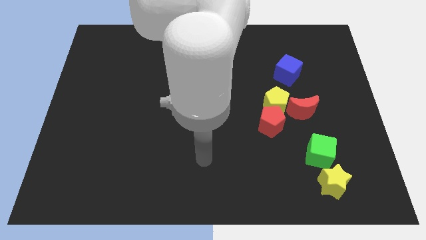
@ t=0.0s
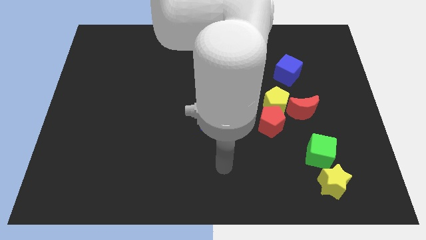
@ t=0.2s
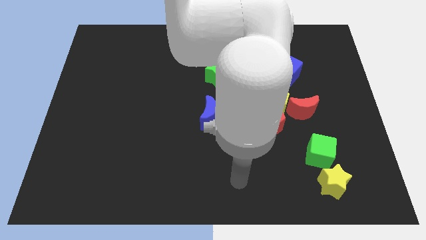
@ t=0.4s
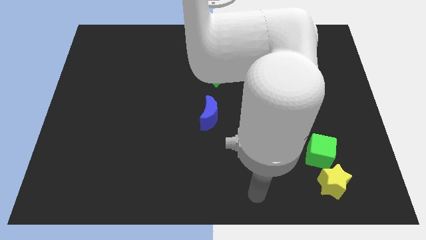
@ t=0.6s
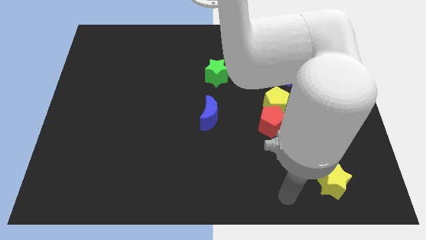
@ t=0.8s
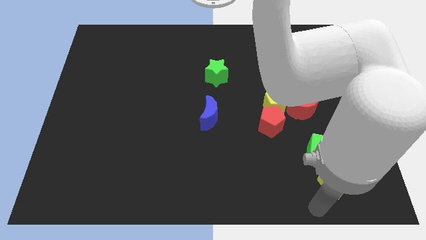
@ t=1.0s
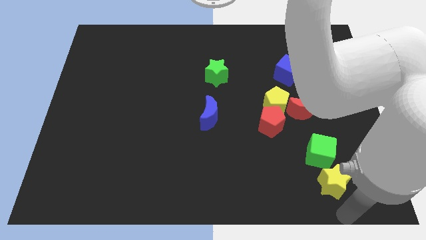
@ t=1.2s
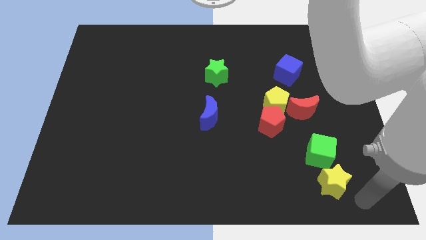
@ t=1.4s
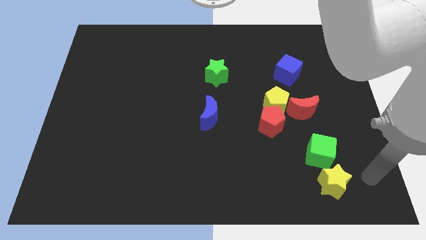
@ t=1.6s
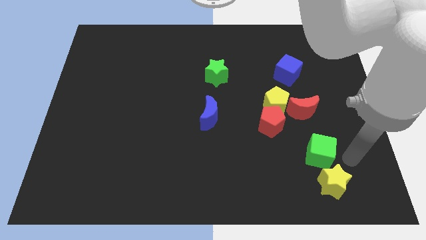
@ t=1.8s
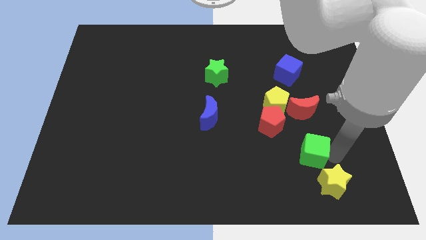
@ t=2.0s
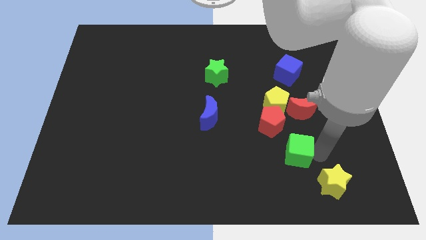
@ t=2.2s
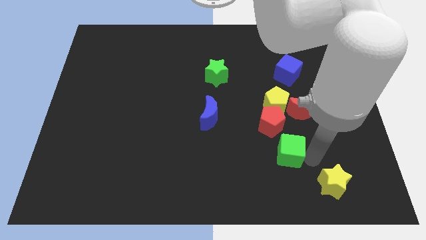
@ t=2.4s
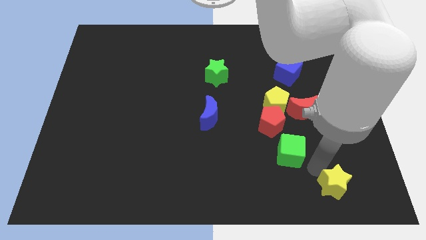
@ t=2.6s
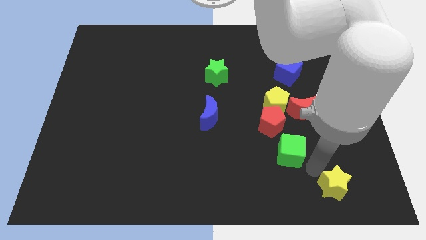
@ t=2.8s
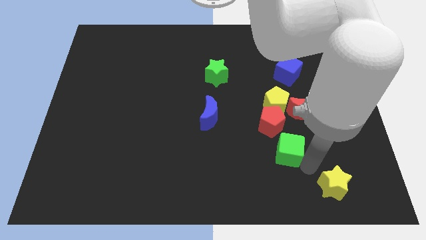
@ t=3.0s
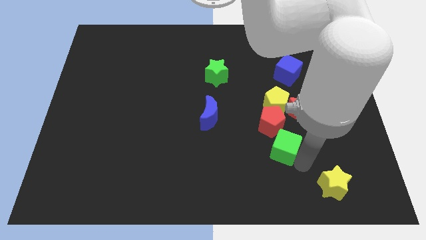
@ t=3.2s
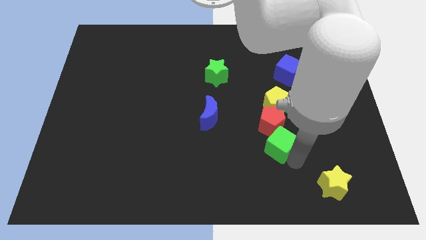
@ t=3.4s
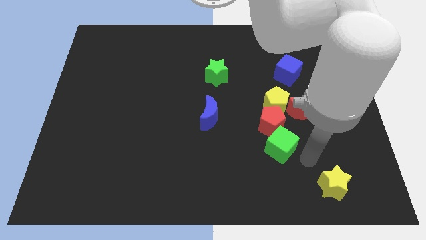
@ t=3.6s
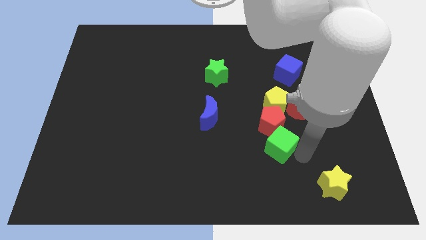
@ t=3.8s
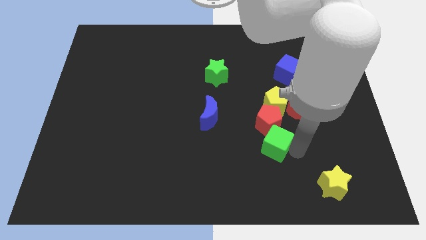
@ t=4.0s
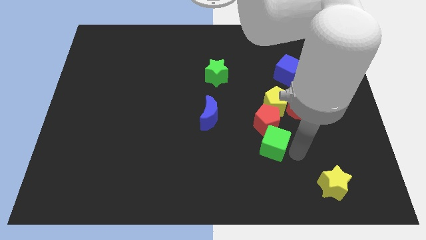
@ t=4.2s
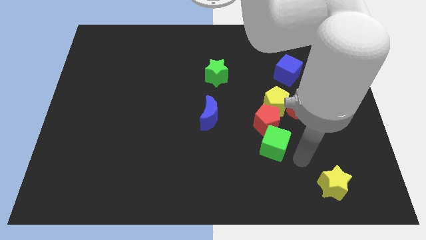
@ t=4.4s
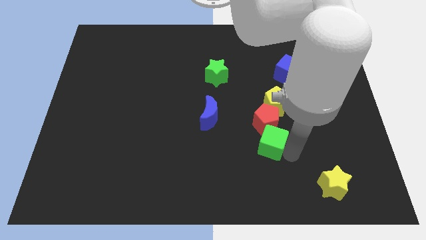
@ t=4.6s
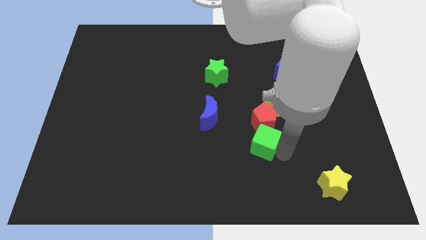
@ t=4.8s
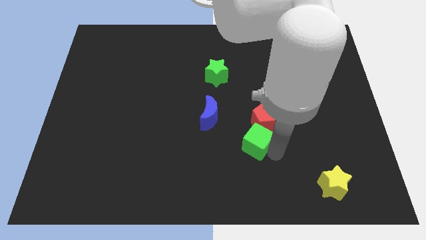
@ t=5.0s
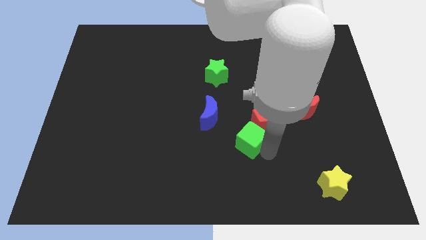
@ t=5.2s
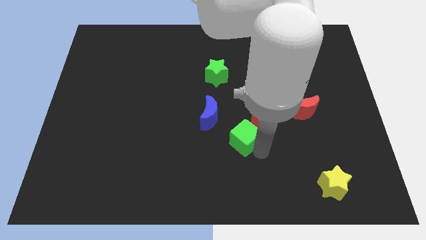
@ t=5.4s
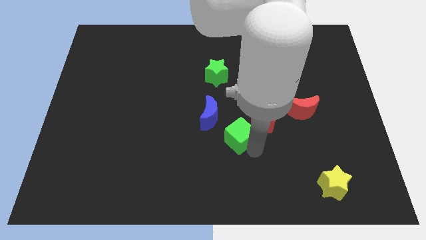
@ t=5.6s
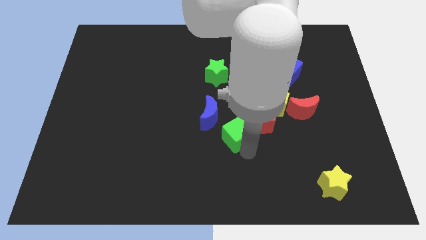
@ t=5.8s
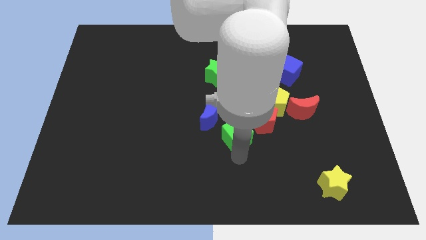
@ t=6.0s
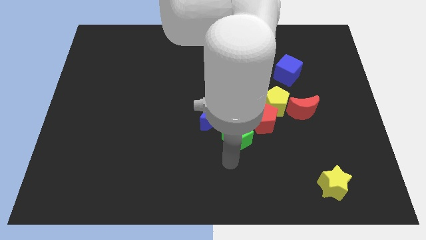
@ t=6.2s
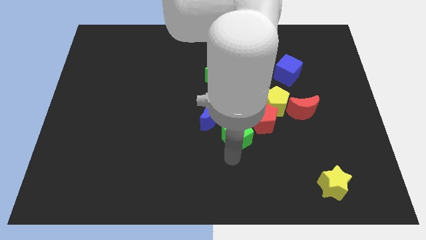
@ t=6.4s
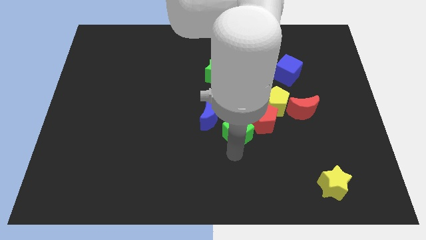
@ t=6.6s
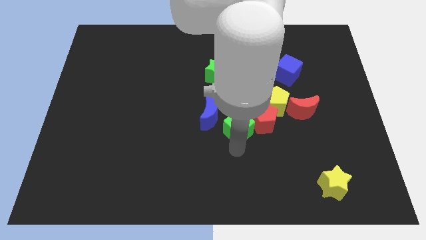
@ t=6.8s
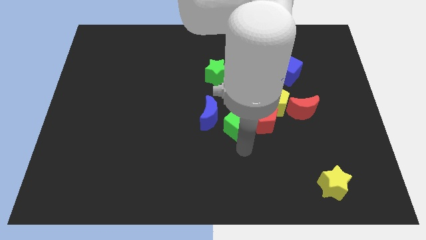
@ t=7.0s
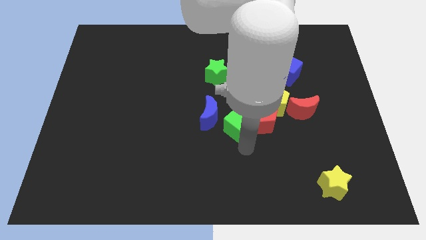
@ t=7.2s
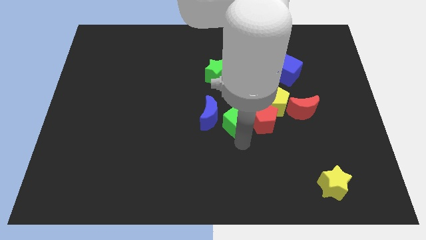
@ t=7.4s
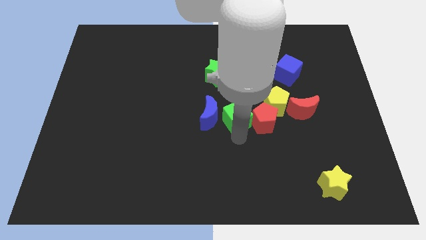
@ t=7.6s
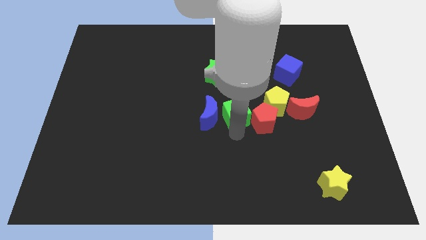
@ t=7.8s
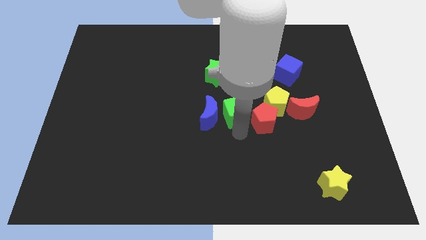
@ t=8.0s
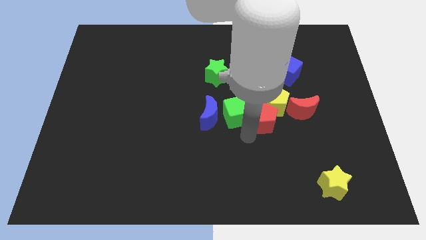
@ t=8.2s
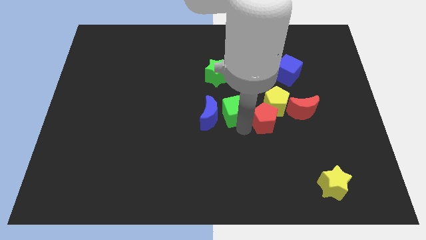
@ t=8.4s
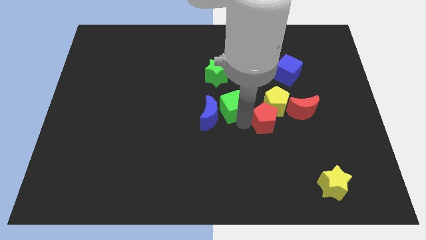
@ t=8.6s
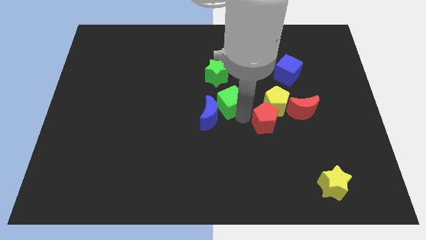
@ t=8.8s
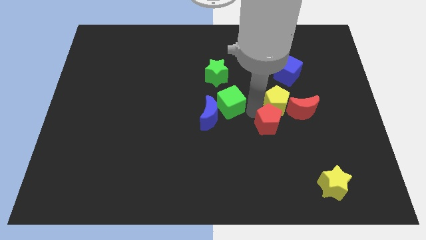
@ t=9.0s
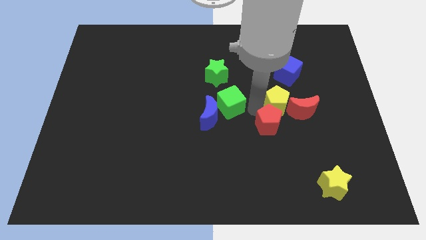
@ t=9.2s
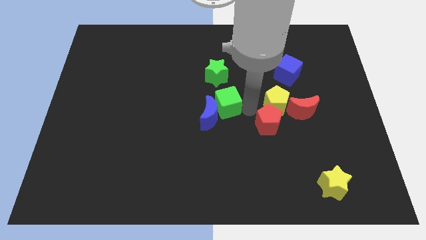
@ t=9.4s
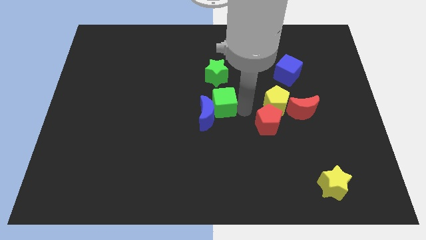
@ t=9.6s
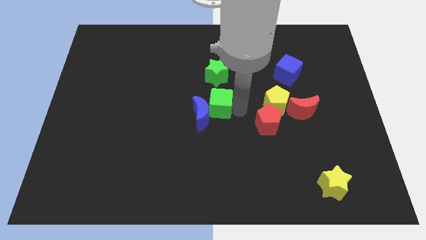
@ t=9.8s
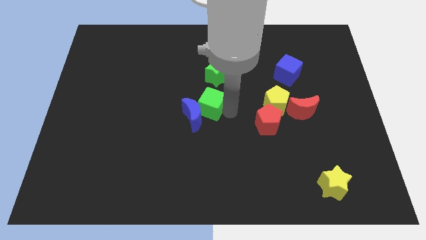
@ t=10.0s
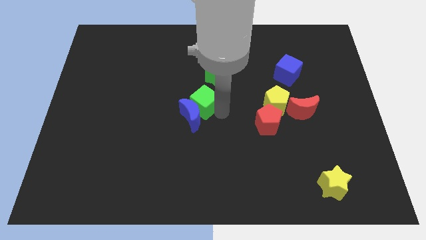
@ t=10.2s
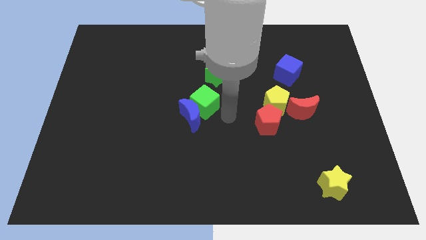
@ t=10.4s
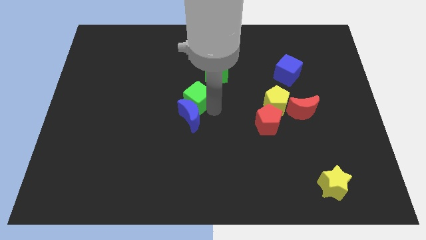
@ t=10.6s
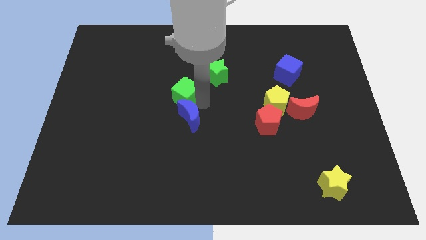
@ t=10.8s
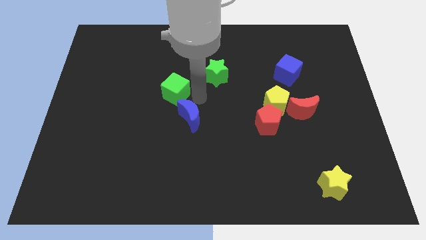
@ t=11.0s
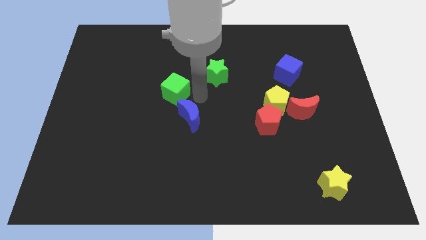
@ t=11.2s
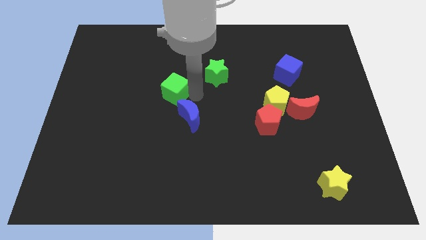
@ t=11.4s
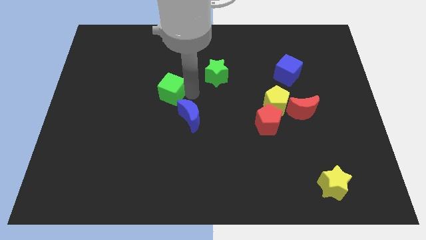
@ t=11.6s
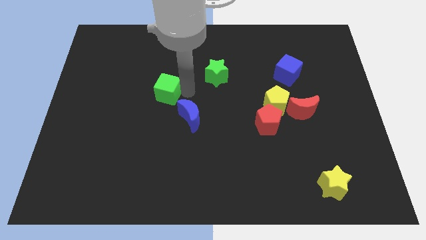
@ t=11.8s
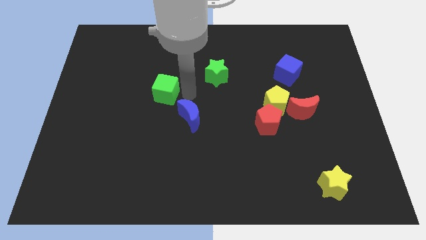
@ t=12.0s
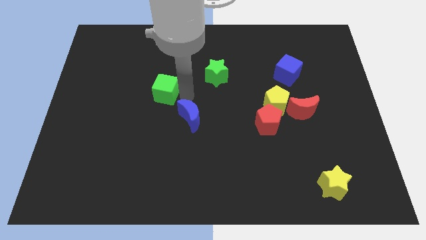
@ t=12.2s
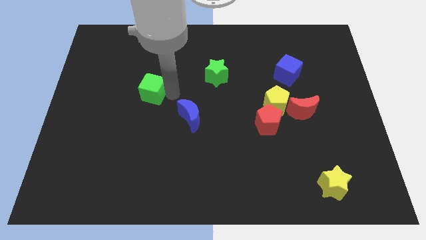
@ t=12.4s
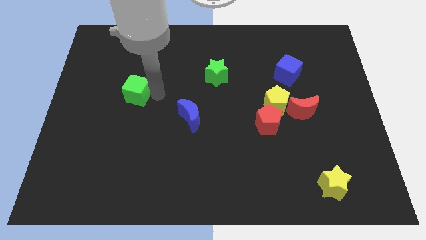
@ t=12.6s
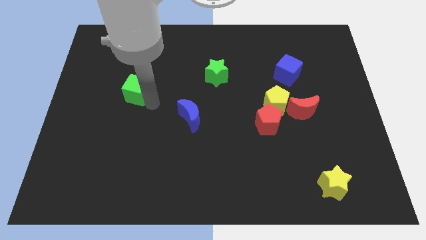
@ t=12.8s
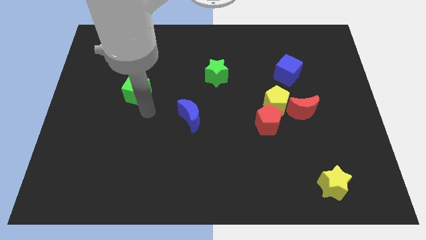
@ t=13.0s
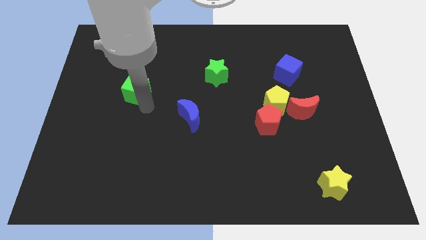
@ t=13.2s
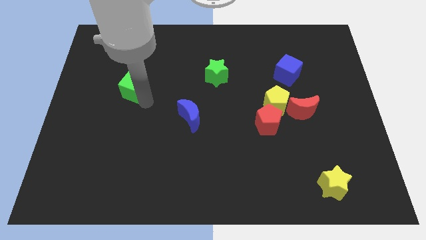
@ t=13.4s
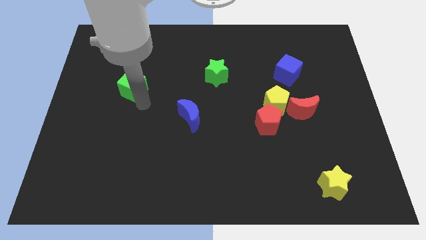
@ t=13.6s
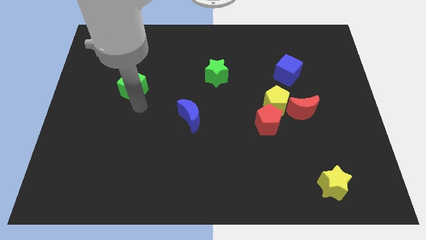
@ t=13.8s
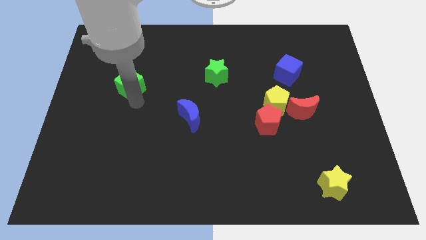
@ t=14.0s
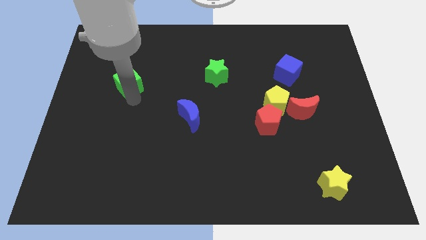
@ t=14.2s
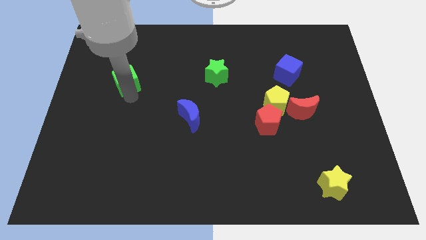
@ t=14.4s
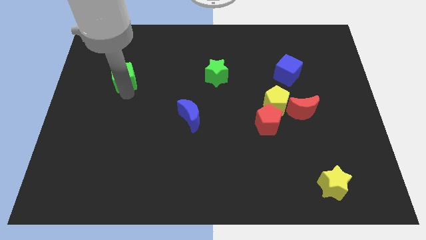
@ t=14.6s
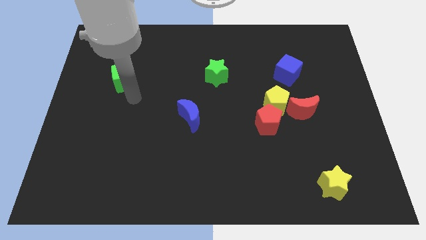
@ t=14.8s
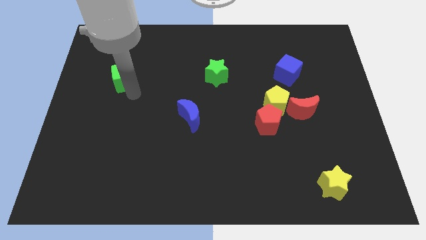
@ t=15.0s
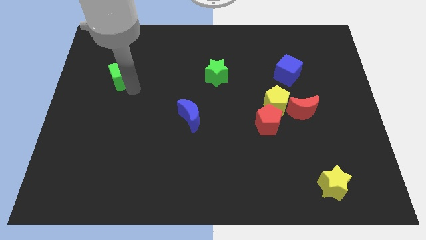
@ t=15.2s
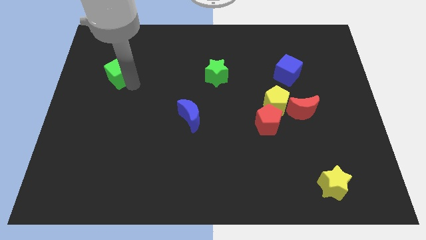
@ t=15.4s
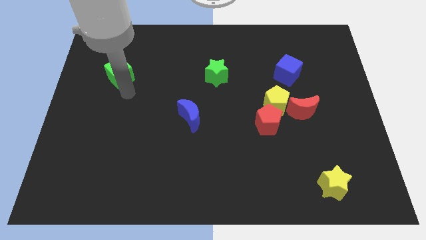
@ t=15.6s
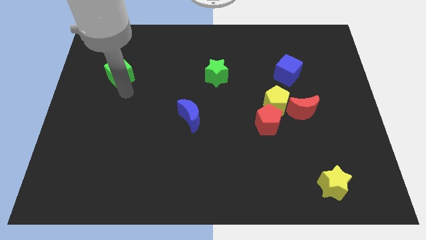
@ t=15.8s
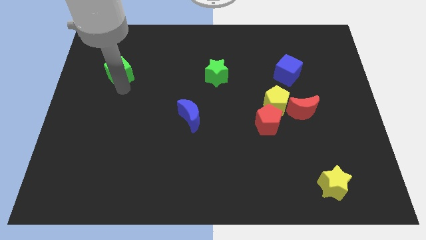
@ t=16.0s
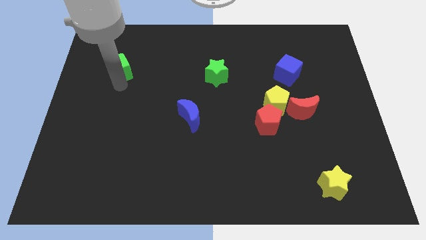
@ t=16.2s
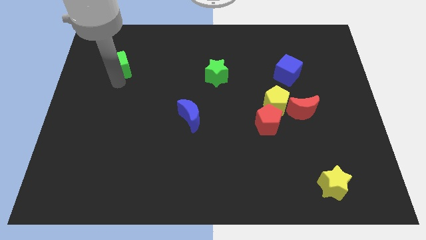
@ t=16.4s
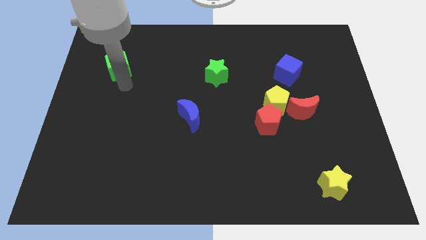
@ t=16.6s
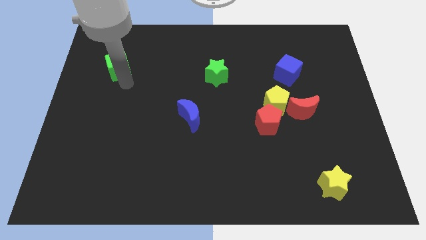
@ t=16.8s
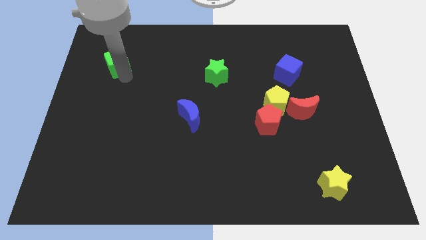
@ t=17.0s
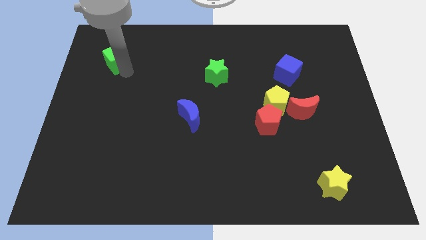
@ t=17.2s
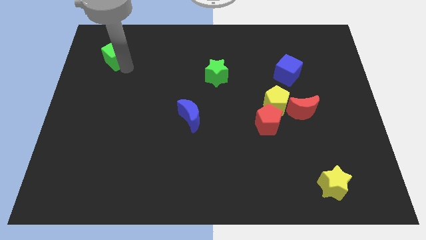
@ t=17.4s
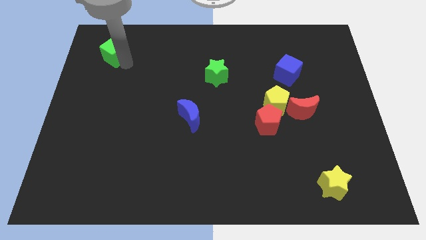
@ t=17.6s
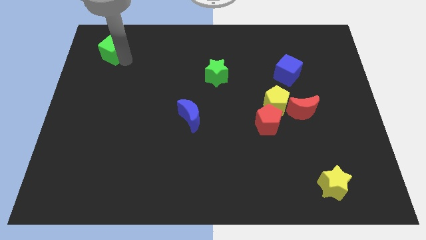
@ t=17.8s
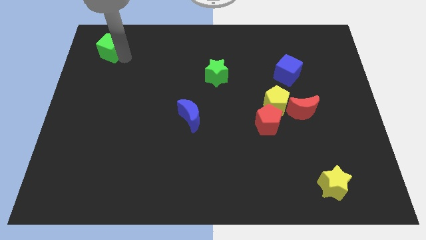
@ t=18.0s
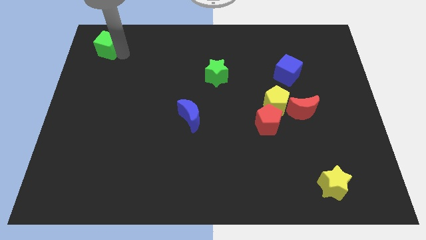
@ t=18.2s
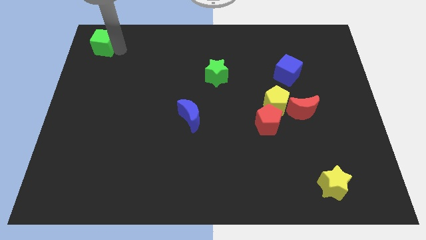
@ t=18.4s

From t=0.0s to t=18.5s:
push the green cube to the top left
